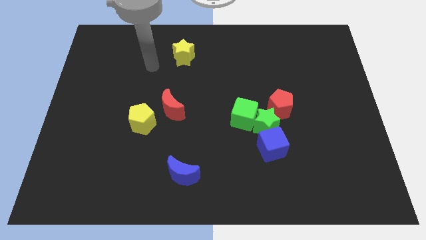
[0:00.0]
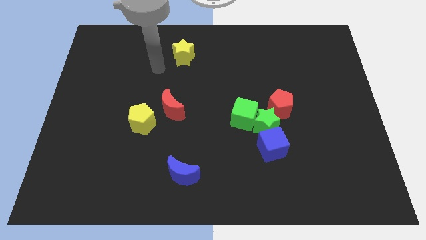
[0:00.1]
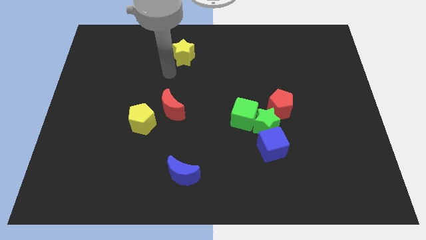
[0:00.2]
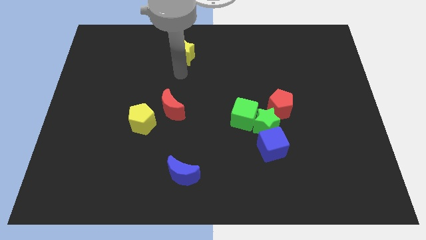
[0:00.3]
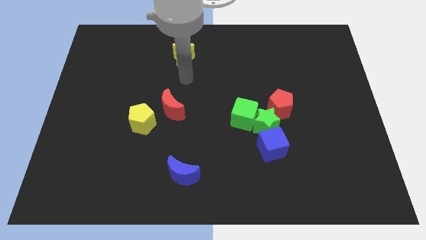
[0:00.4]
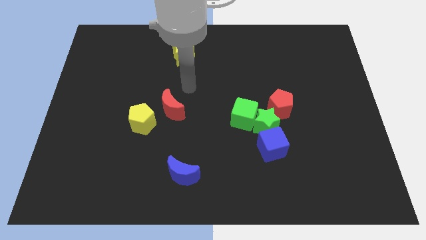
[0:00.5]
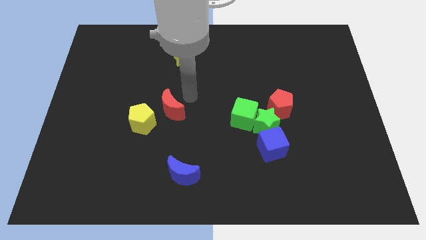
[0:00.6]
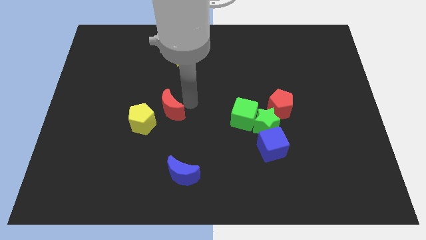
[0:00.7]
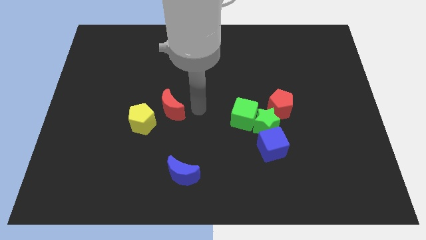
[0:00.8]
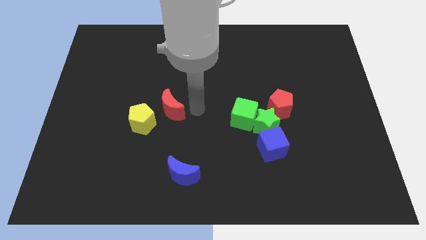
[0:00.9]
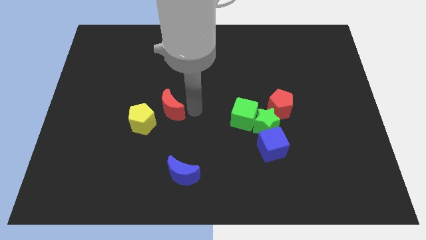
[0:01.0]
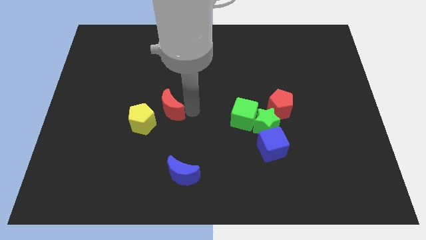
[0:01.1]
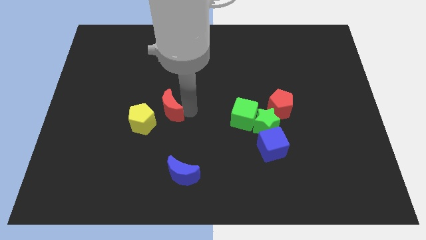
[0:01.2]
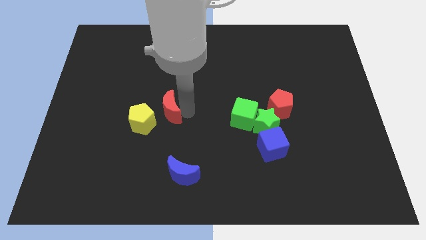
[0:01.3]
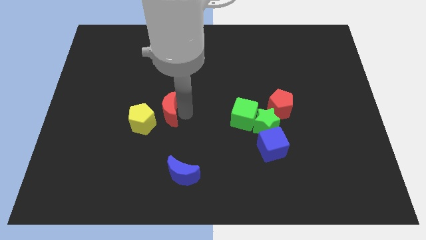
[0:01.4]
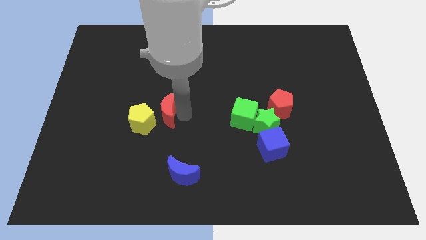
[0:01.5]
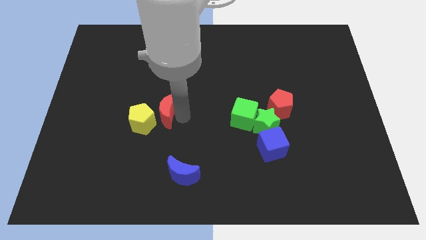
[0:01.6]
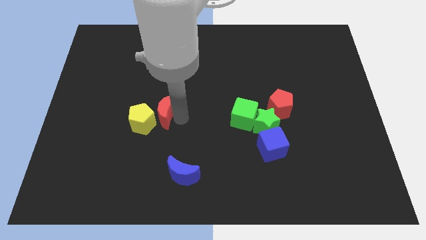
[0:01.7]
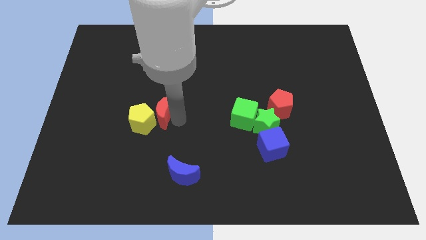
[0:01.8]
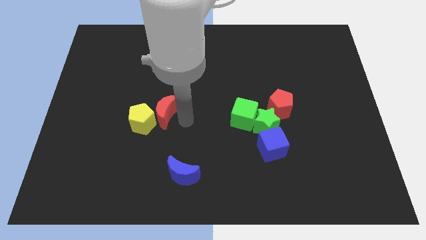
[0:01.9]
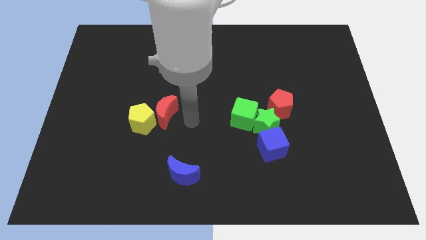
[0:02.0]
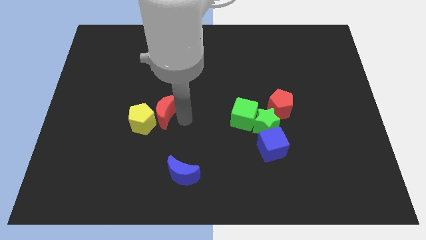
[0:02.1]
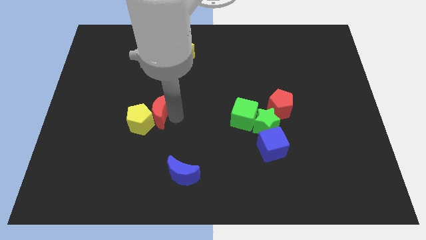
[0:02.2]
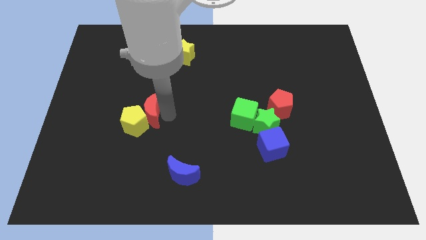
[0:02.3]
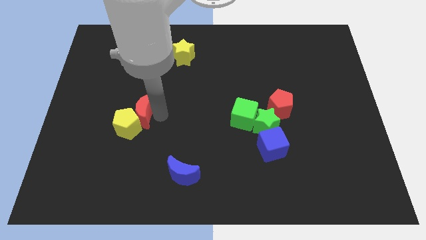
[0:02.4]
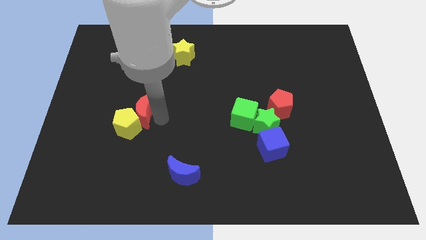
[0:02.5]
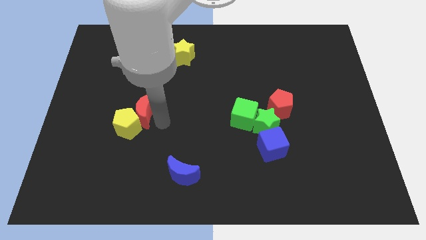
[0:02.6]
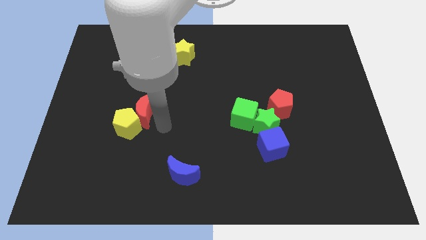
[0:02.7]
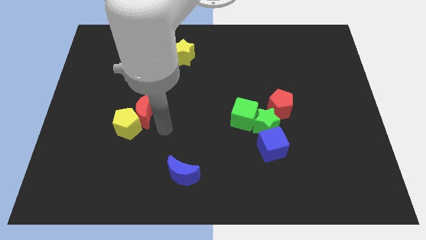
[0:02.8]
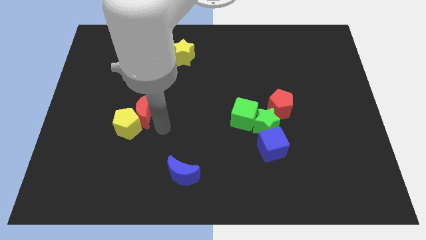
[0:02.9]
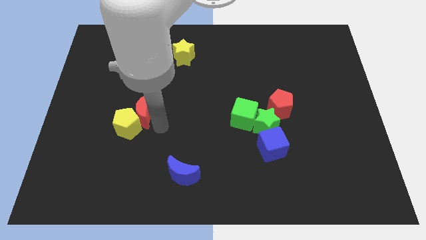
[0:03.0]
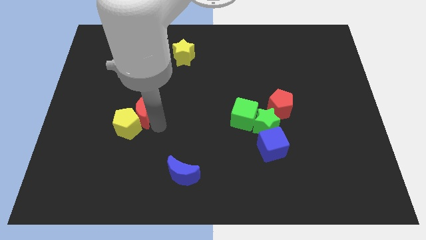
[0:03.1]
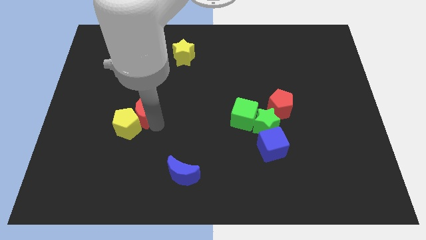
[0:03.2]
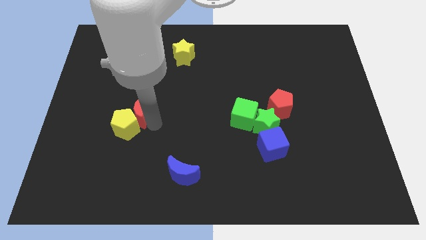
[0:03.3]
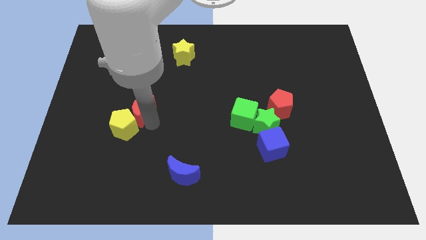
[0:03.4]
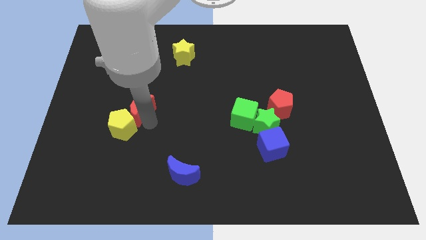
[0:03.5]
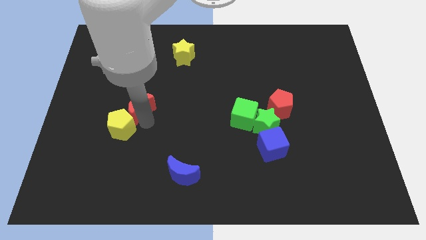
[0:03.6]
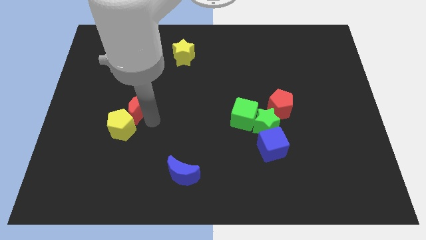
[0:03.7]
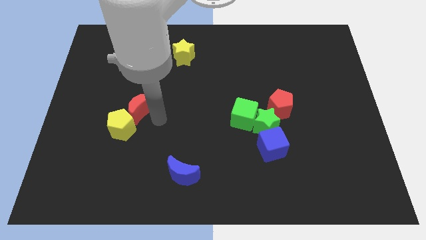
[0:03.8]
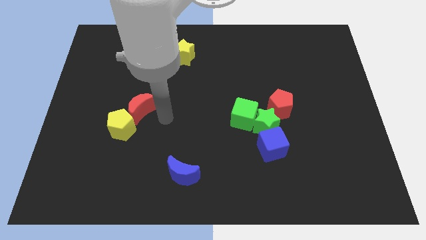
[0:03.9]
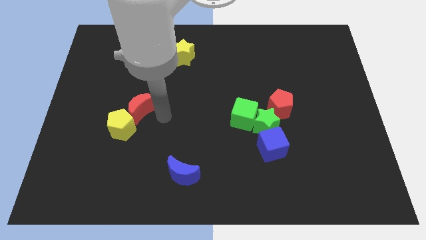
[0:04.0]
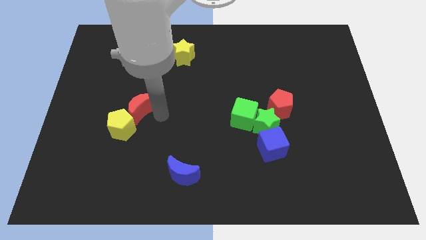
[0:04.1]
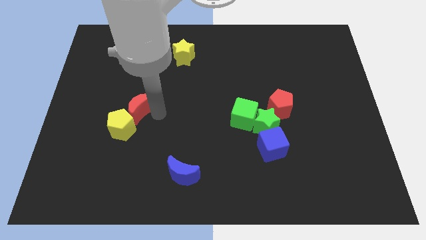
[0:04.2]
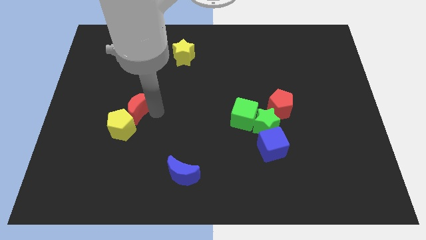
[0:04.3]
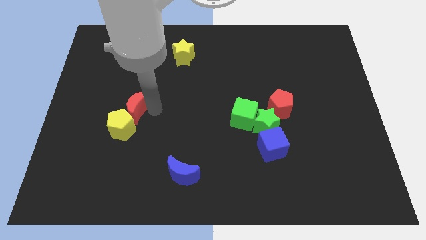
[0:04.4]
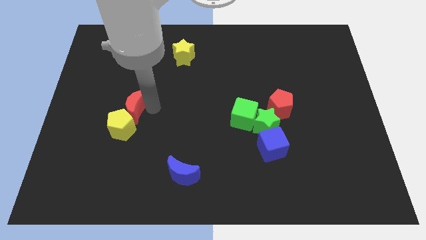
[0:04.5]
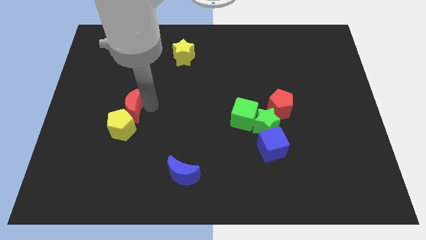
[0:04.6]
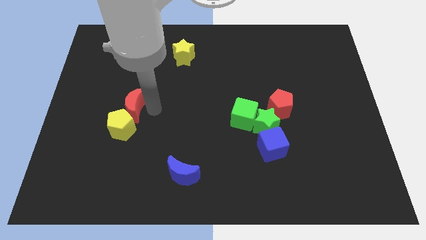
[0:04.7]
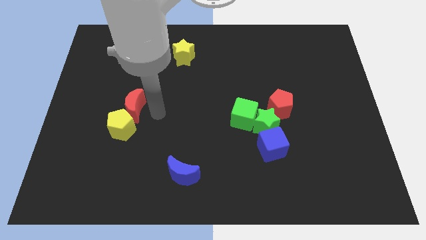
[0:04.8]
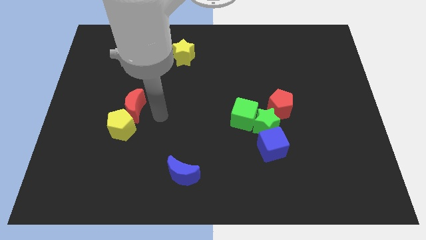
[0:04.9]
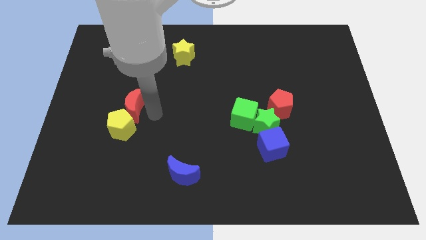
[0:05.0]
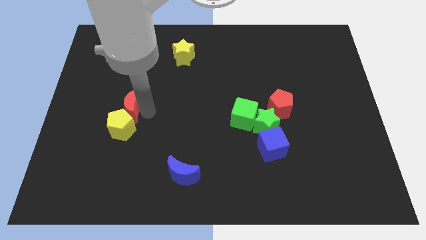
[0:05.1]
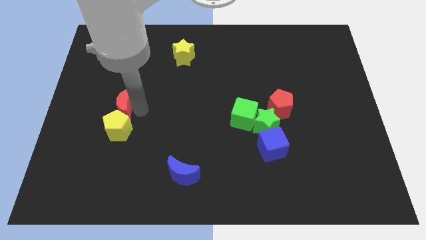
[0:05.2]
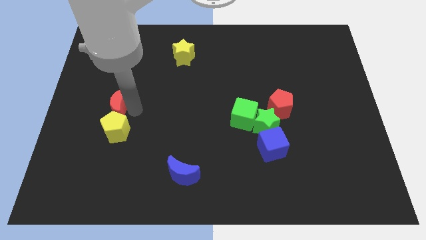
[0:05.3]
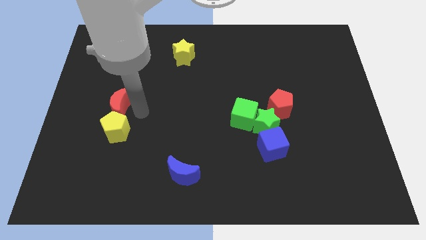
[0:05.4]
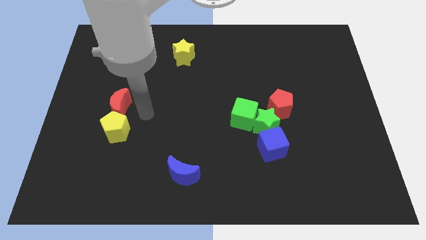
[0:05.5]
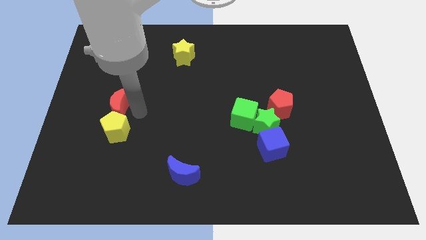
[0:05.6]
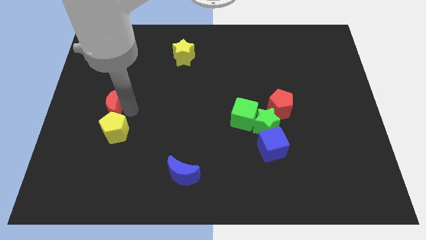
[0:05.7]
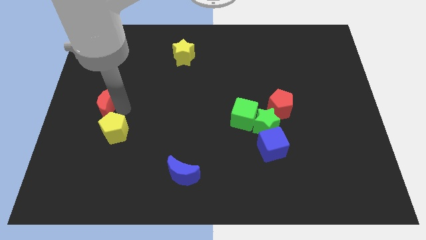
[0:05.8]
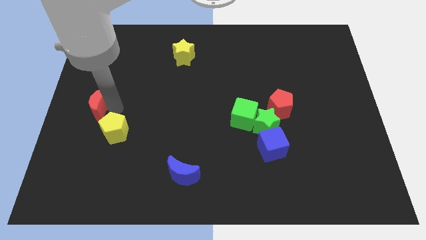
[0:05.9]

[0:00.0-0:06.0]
put the red moon to the left side
